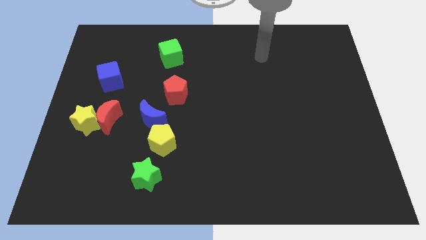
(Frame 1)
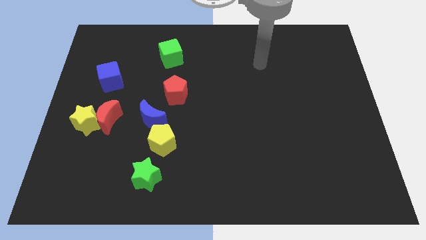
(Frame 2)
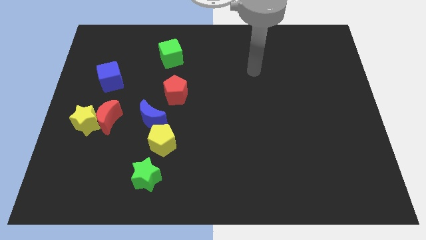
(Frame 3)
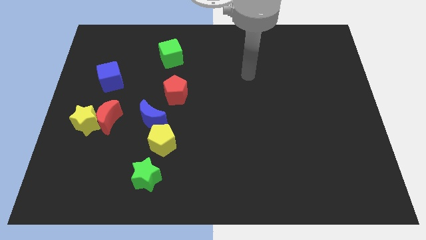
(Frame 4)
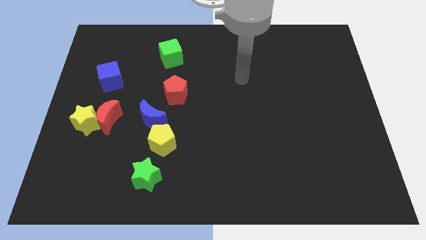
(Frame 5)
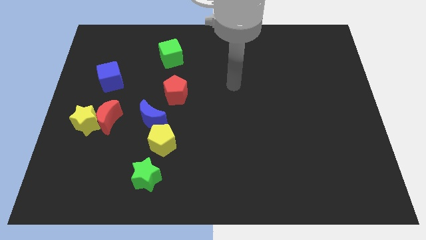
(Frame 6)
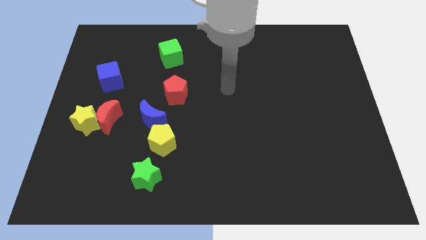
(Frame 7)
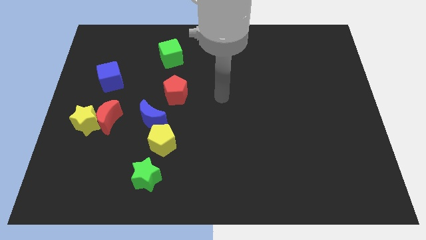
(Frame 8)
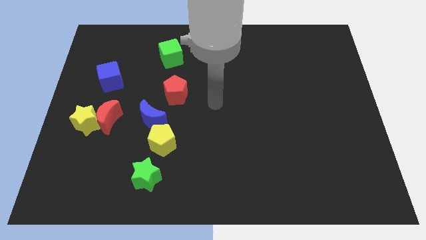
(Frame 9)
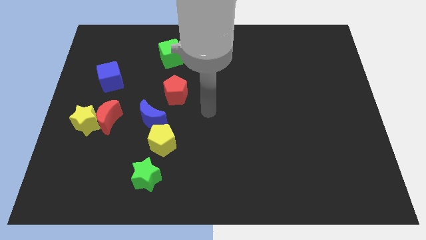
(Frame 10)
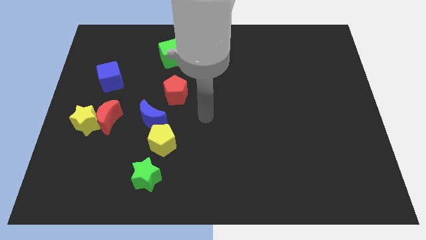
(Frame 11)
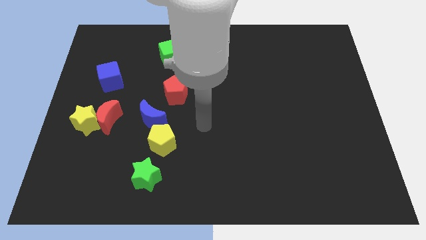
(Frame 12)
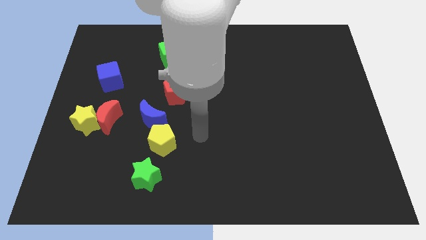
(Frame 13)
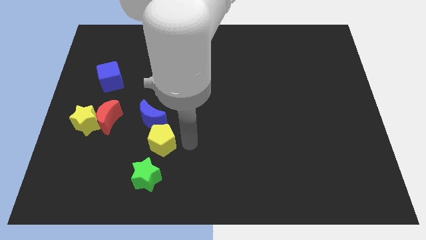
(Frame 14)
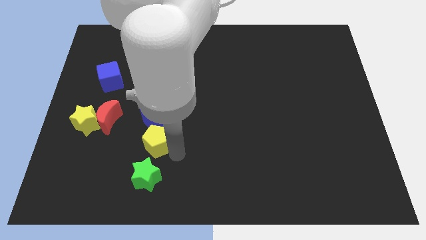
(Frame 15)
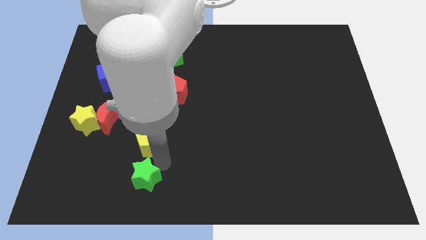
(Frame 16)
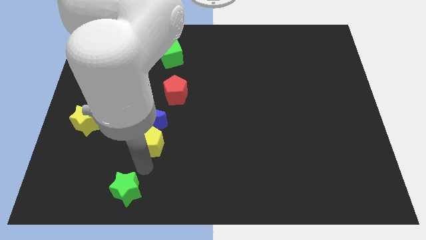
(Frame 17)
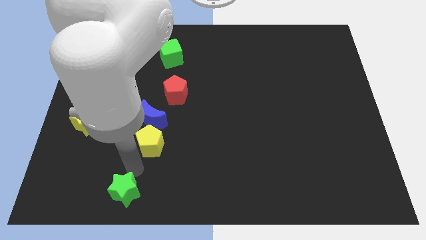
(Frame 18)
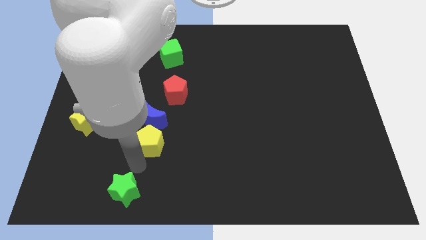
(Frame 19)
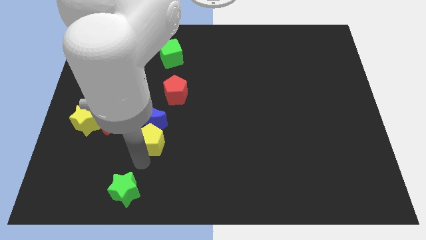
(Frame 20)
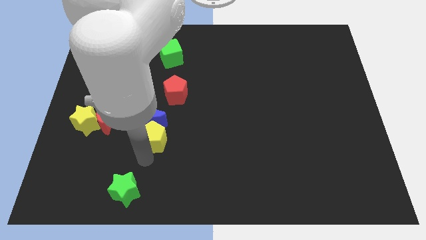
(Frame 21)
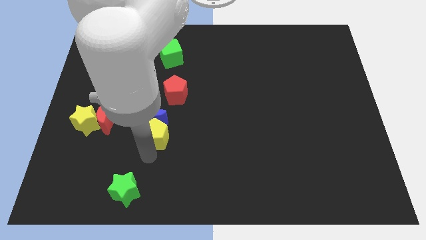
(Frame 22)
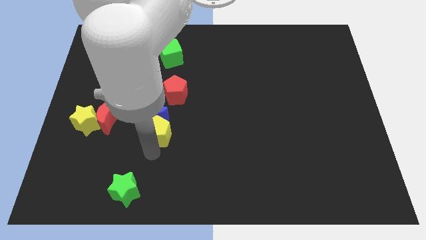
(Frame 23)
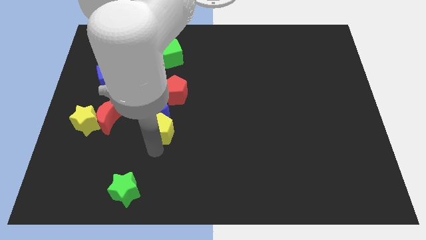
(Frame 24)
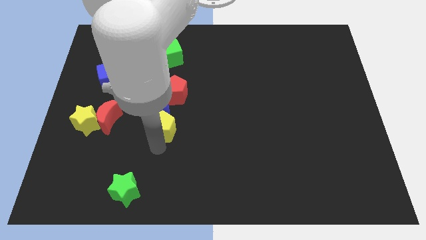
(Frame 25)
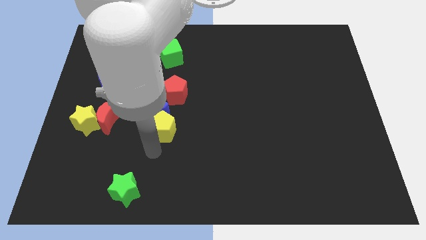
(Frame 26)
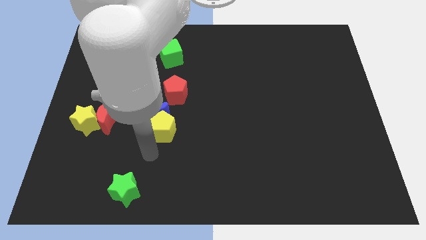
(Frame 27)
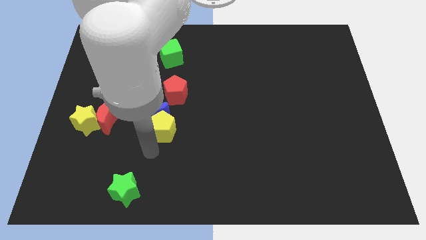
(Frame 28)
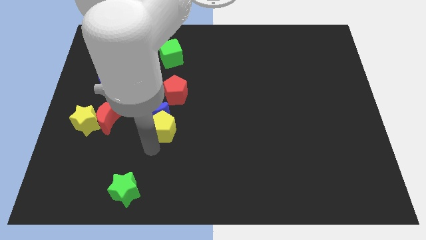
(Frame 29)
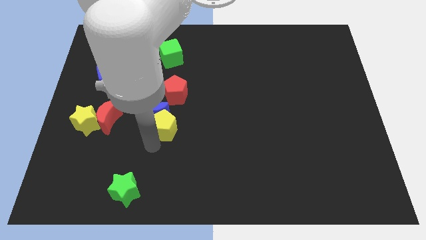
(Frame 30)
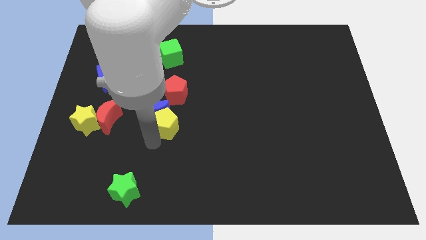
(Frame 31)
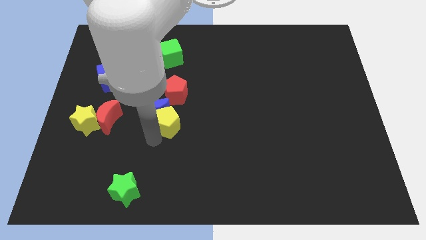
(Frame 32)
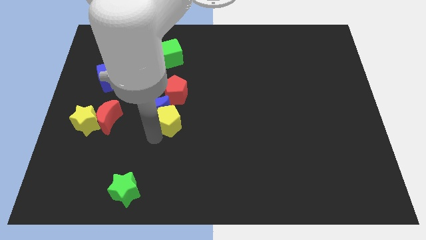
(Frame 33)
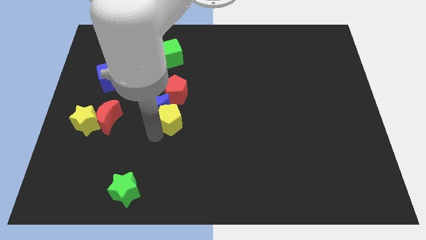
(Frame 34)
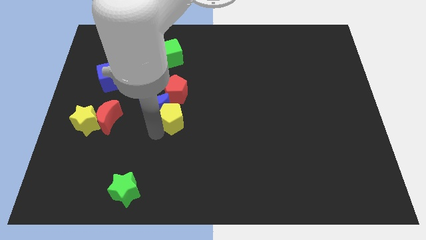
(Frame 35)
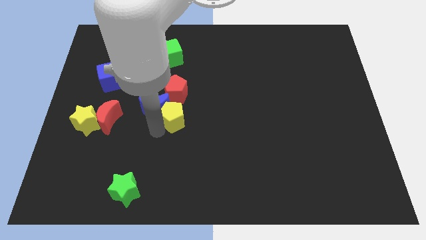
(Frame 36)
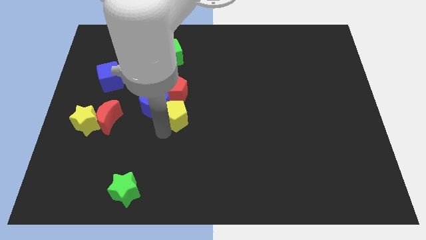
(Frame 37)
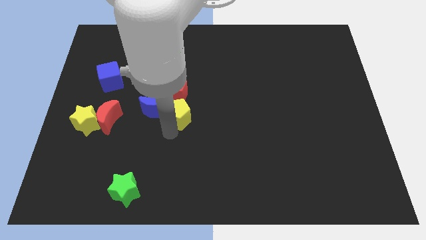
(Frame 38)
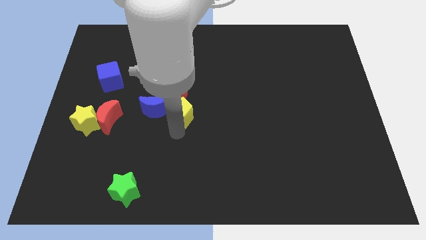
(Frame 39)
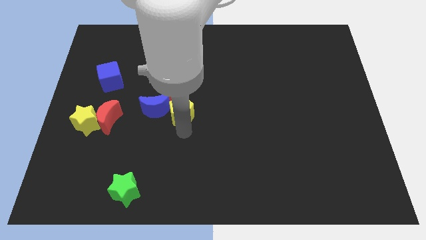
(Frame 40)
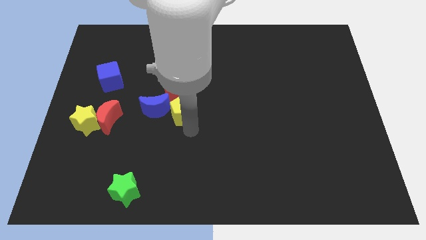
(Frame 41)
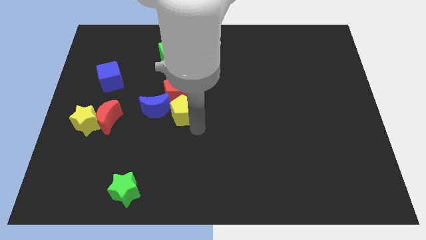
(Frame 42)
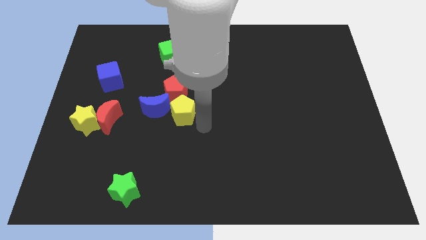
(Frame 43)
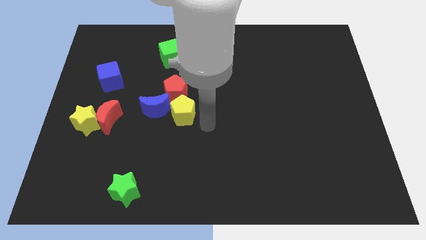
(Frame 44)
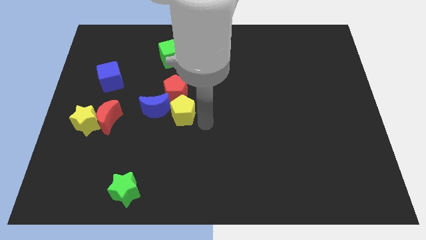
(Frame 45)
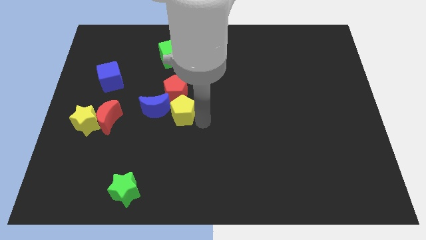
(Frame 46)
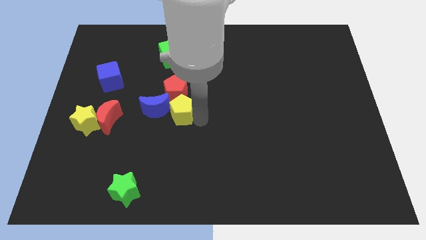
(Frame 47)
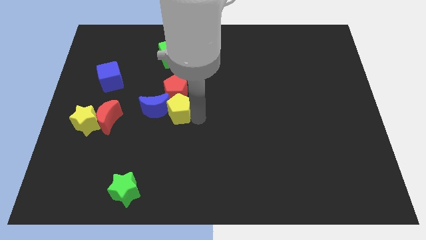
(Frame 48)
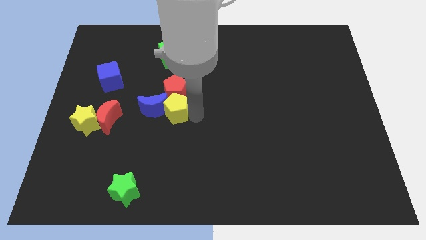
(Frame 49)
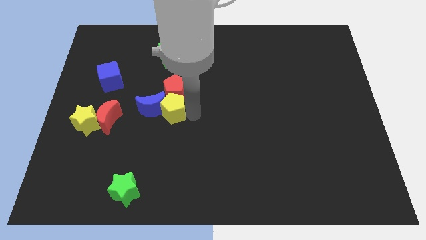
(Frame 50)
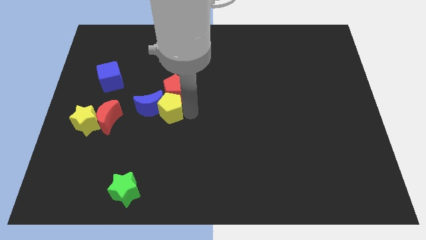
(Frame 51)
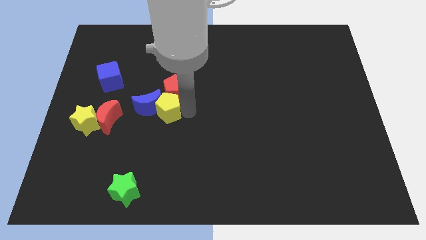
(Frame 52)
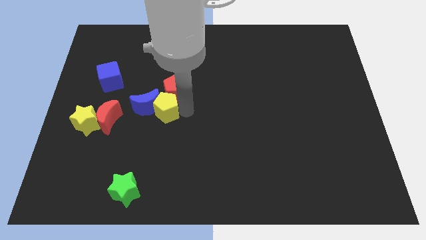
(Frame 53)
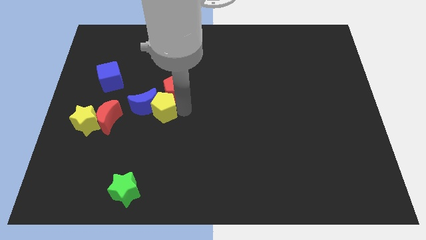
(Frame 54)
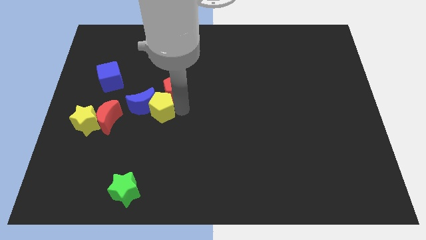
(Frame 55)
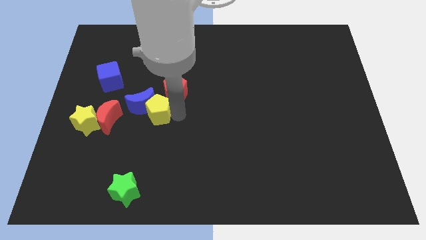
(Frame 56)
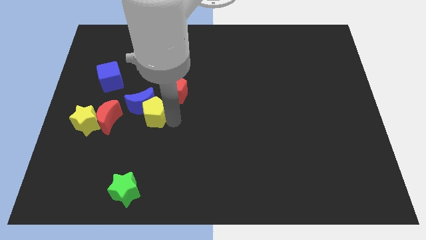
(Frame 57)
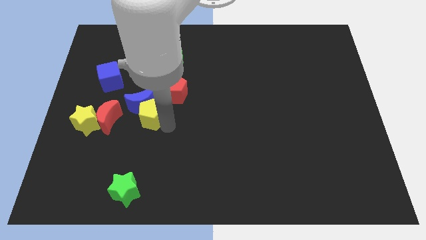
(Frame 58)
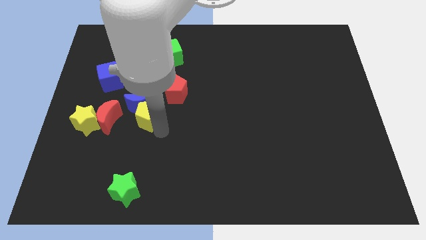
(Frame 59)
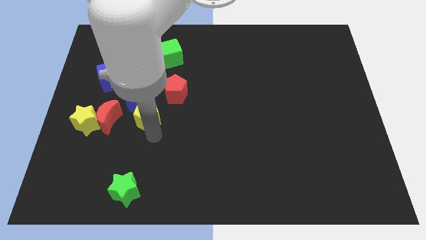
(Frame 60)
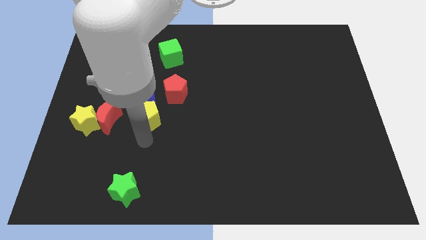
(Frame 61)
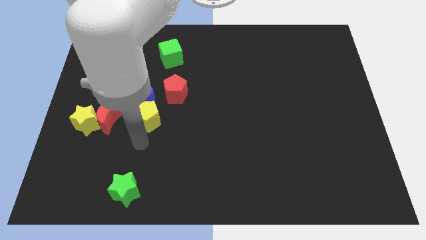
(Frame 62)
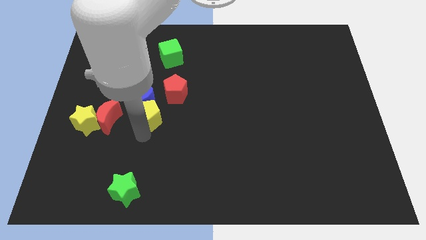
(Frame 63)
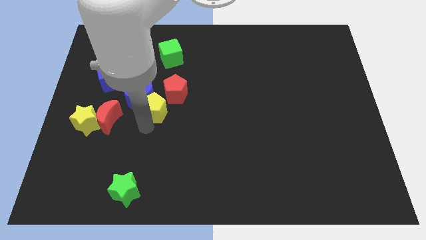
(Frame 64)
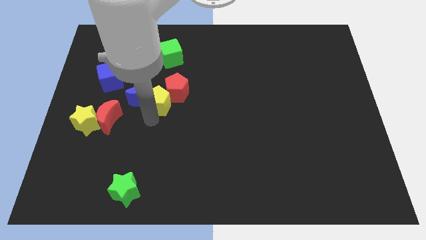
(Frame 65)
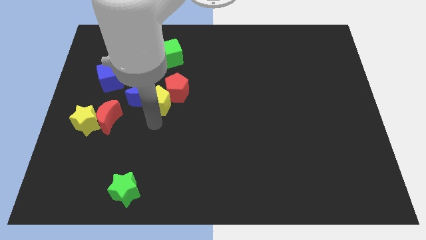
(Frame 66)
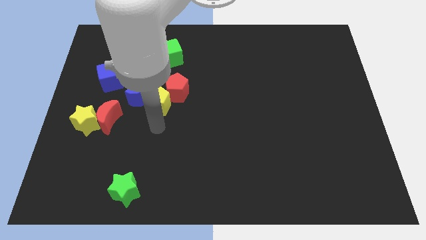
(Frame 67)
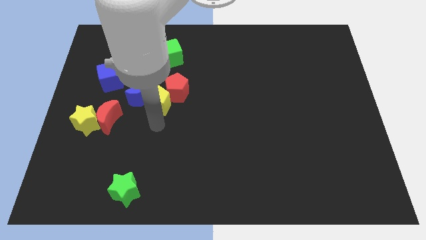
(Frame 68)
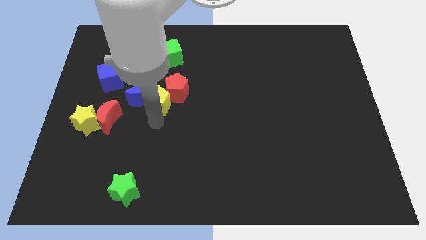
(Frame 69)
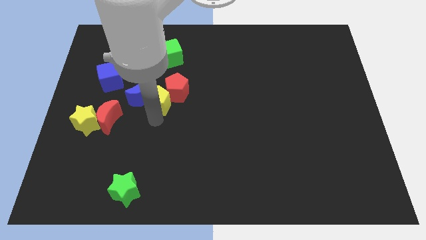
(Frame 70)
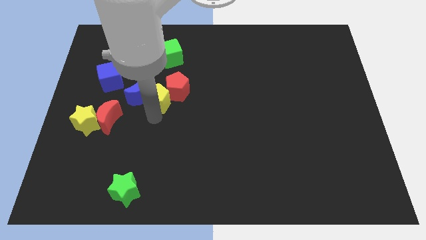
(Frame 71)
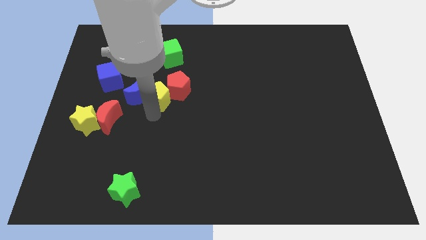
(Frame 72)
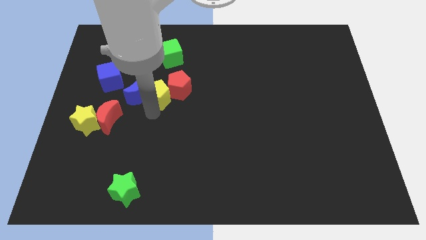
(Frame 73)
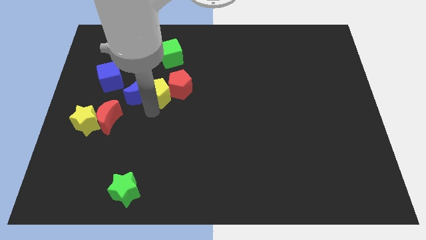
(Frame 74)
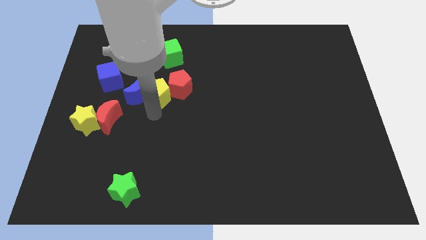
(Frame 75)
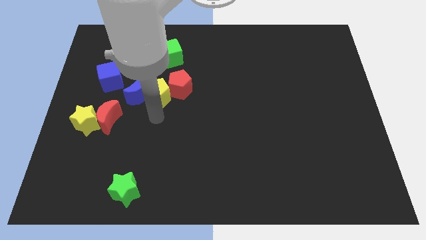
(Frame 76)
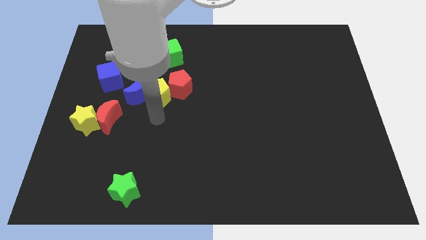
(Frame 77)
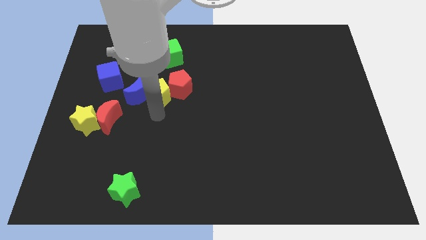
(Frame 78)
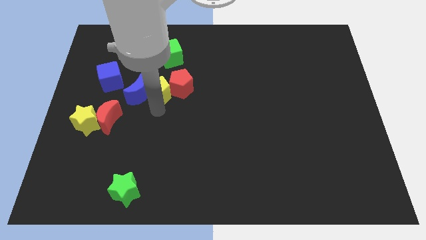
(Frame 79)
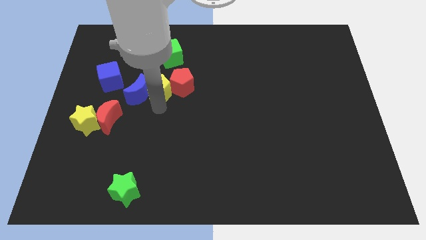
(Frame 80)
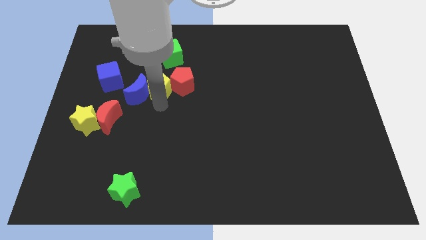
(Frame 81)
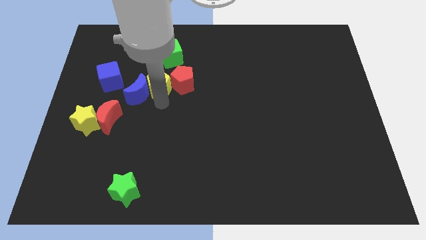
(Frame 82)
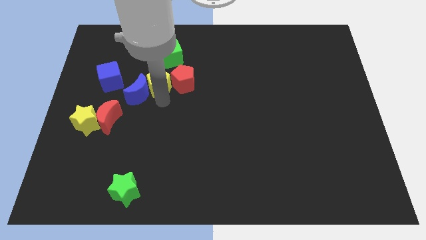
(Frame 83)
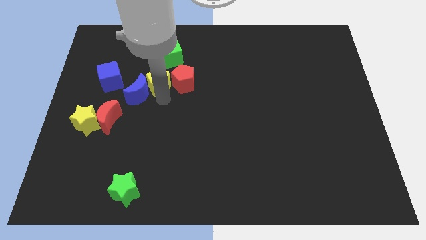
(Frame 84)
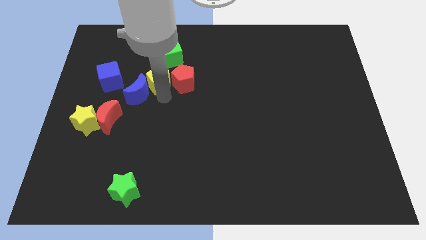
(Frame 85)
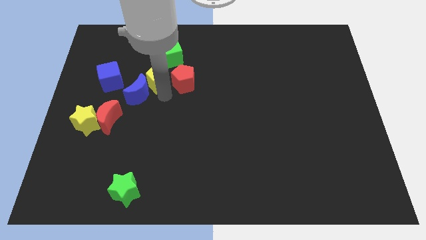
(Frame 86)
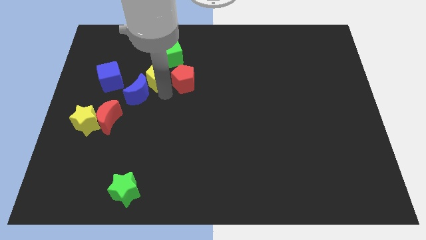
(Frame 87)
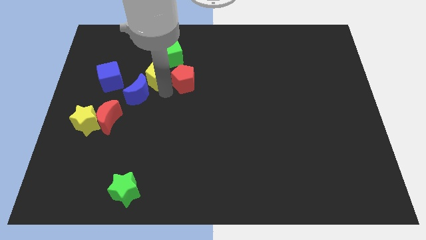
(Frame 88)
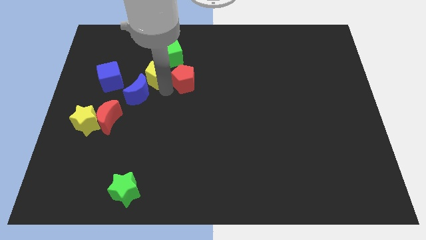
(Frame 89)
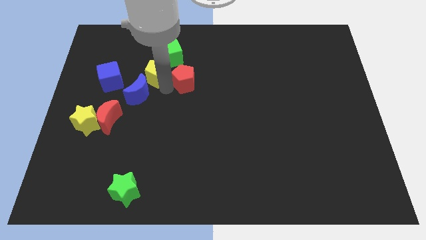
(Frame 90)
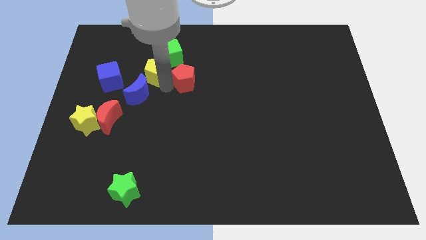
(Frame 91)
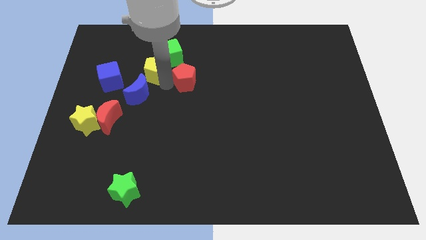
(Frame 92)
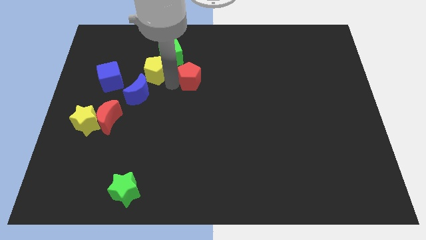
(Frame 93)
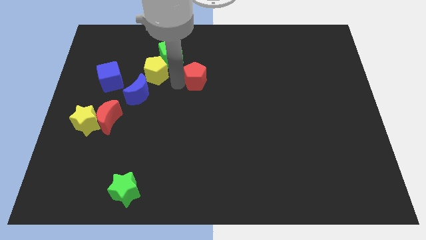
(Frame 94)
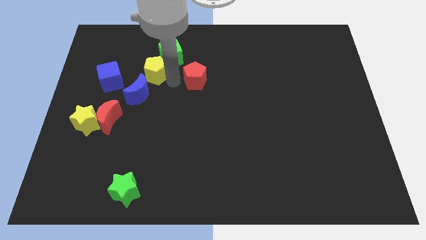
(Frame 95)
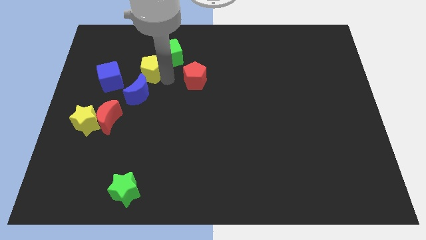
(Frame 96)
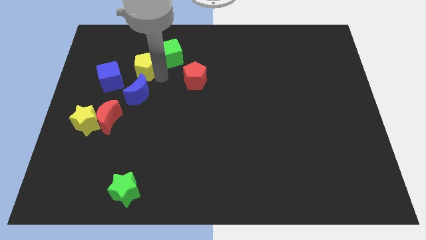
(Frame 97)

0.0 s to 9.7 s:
put the yellow pentagon diagonally up and to the right of the blue cube
